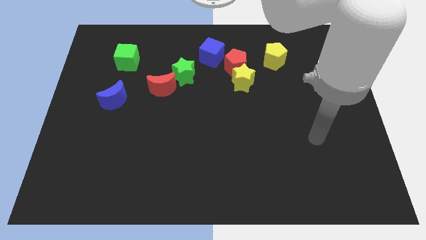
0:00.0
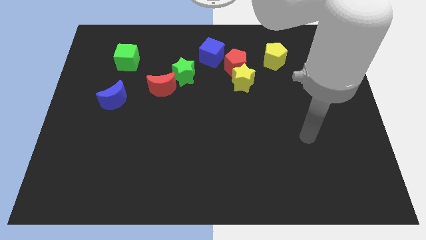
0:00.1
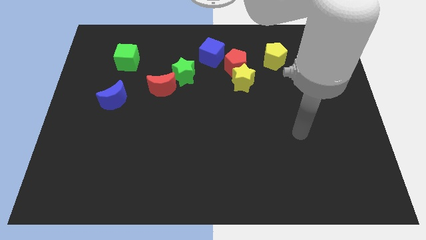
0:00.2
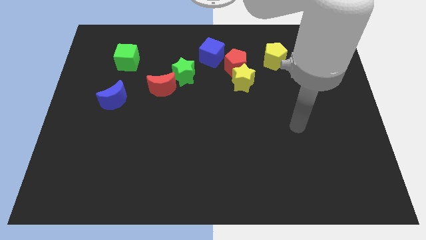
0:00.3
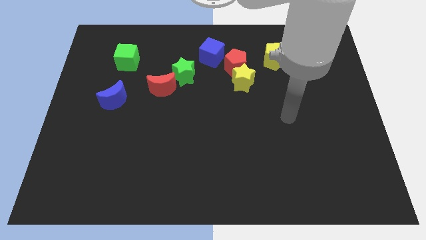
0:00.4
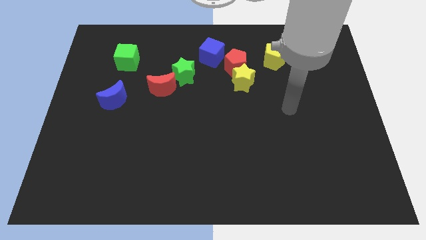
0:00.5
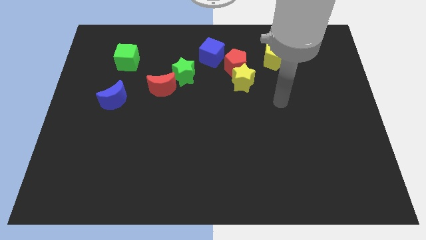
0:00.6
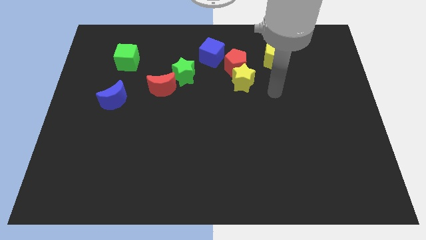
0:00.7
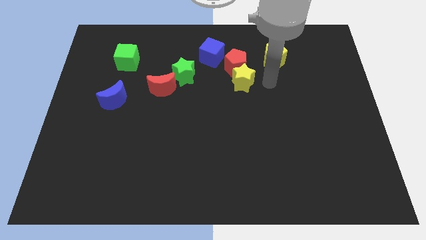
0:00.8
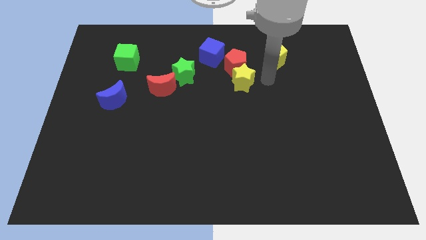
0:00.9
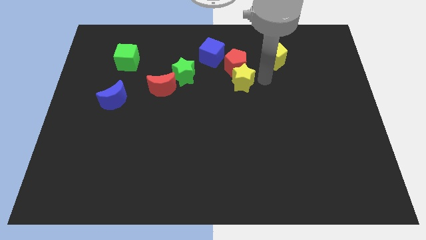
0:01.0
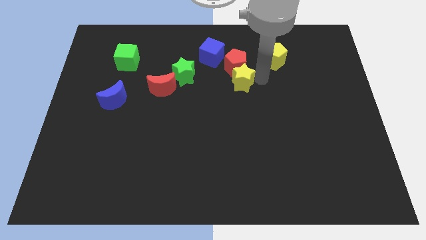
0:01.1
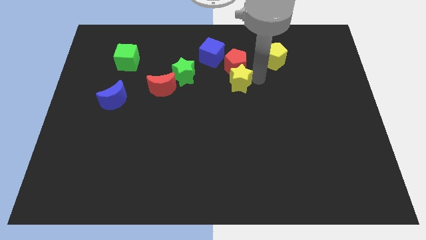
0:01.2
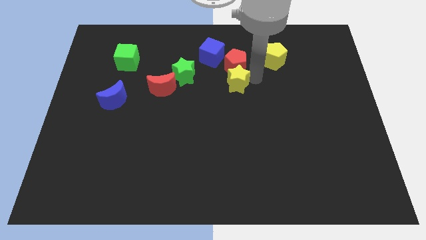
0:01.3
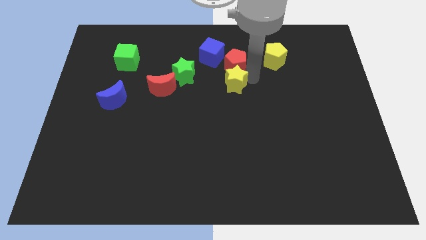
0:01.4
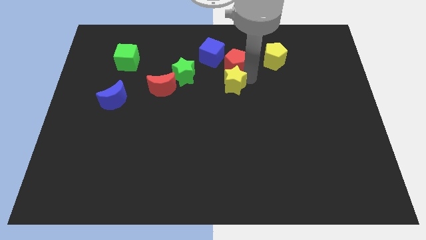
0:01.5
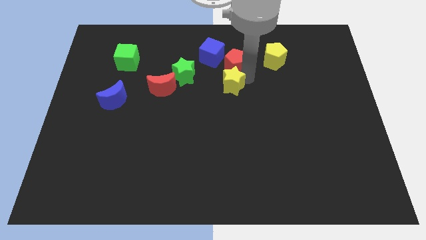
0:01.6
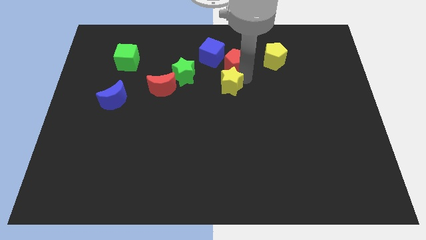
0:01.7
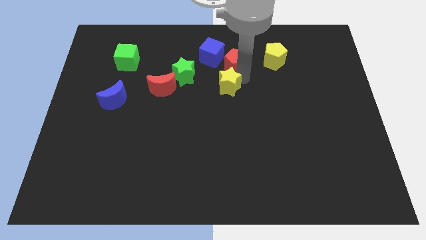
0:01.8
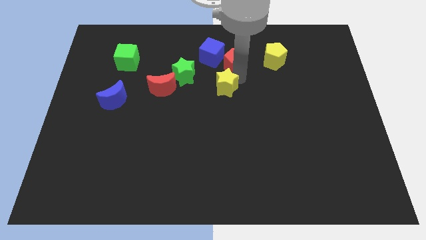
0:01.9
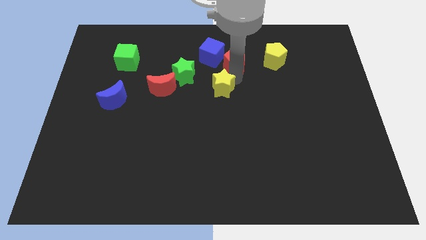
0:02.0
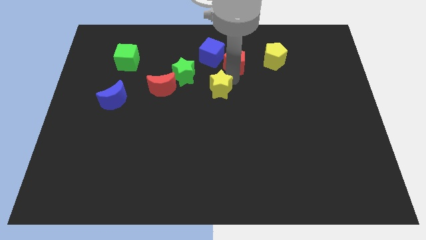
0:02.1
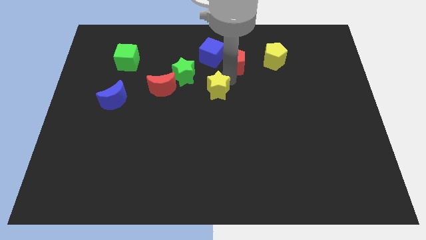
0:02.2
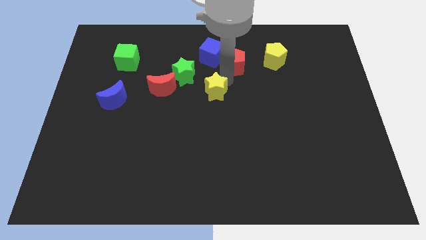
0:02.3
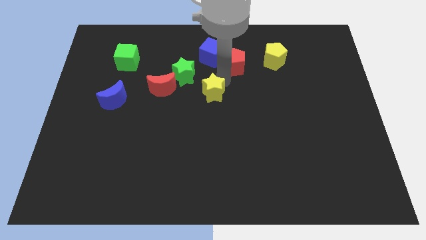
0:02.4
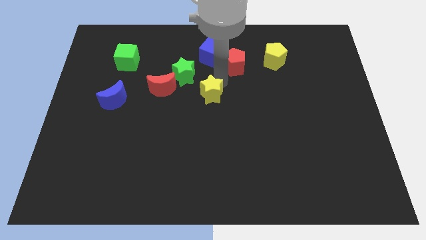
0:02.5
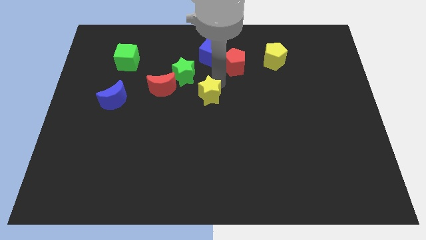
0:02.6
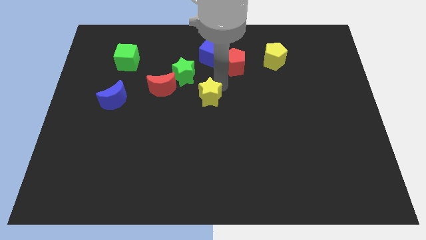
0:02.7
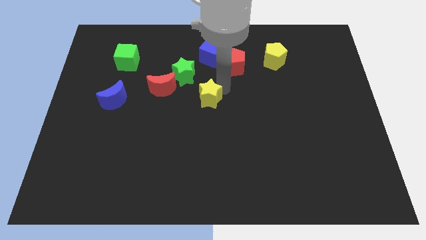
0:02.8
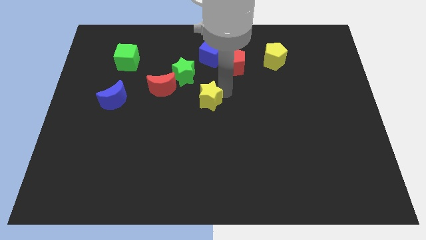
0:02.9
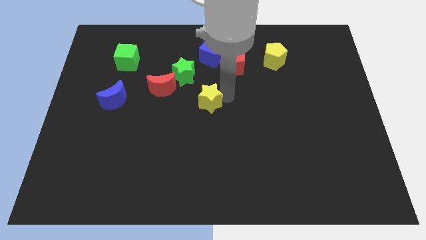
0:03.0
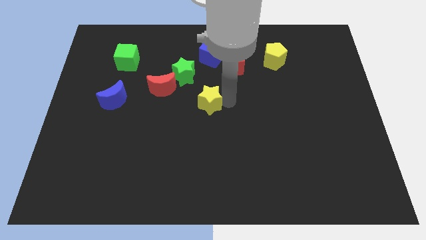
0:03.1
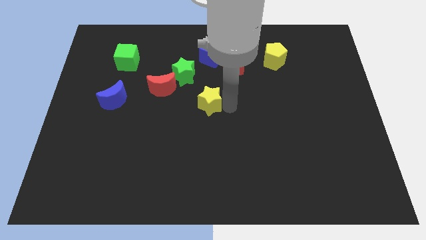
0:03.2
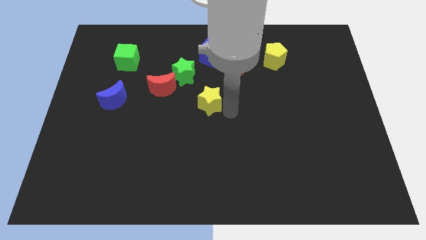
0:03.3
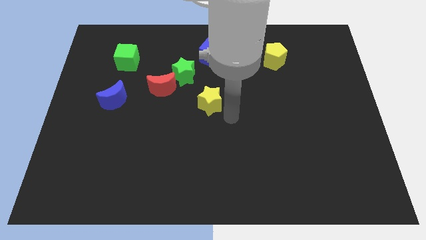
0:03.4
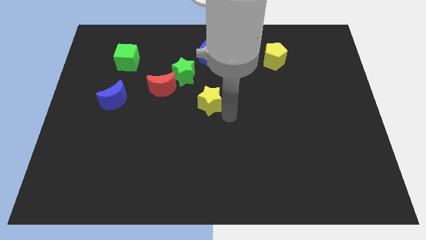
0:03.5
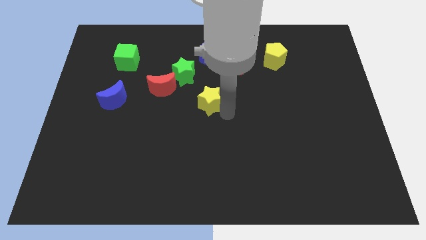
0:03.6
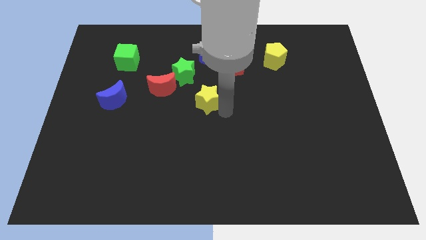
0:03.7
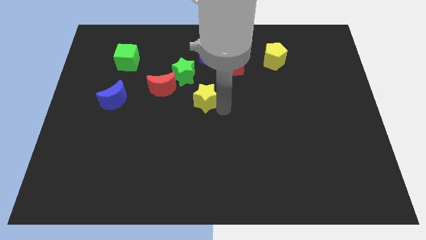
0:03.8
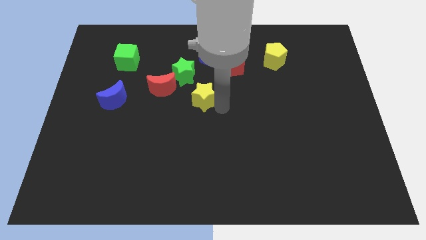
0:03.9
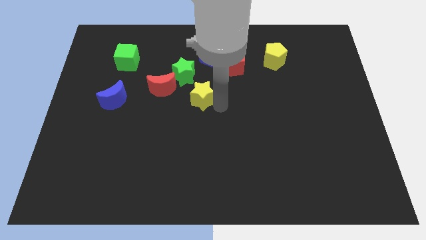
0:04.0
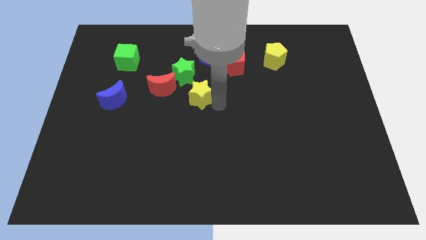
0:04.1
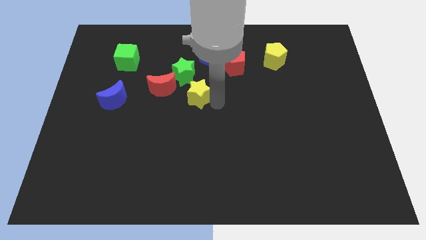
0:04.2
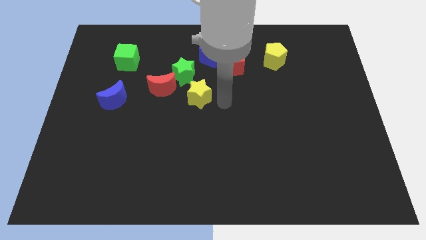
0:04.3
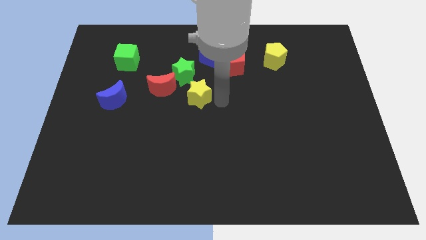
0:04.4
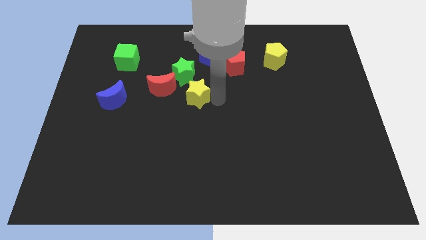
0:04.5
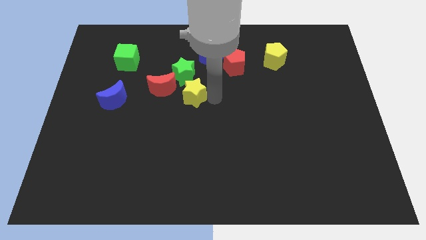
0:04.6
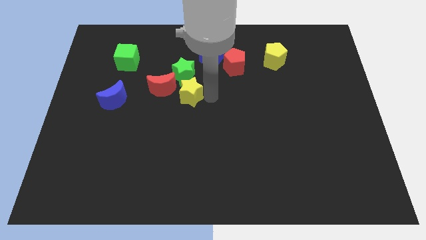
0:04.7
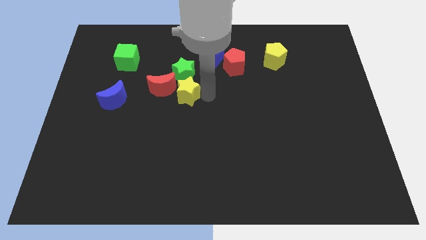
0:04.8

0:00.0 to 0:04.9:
slide the yellow star towards the red moon

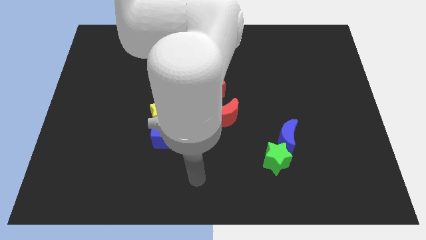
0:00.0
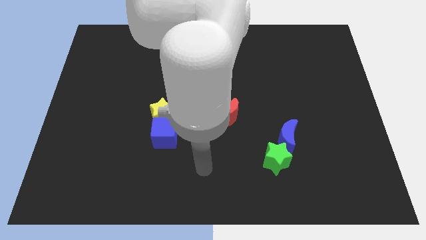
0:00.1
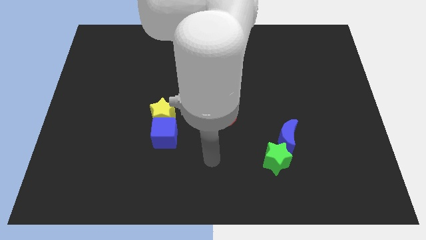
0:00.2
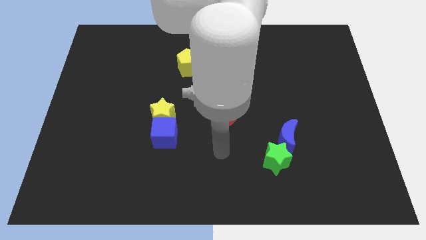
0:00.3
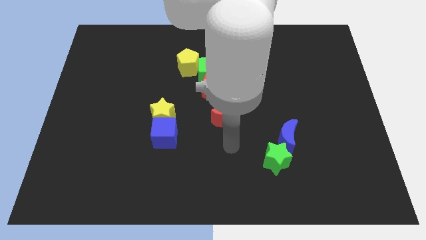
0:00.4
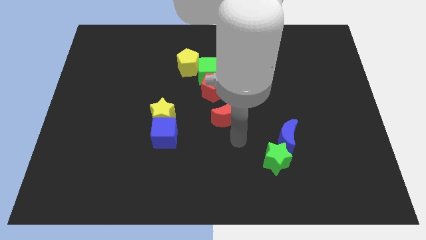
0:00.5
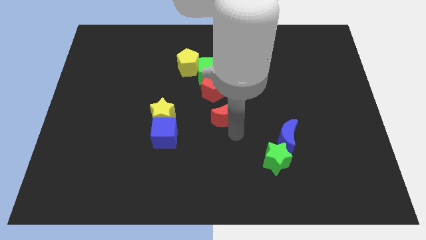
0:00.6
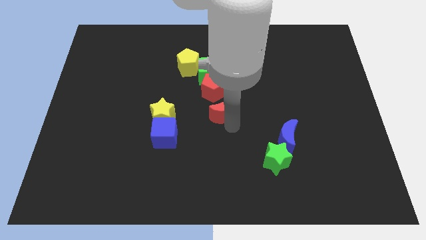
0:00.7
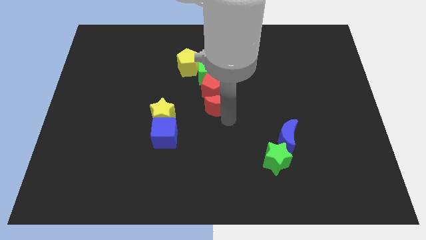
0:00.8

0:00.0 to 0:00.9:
put the red moon close to the red pentagon

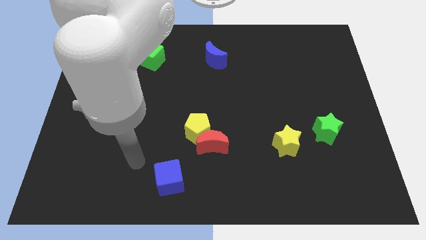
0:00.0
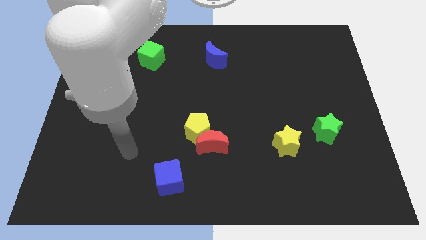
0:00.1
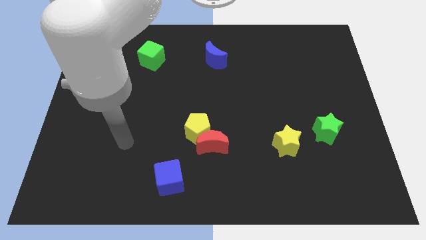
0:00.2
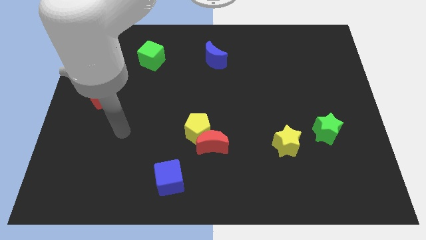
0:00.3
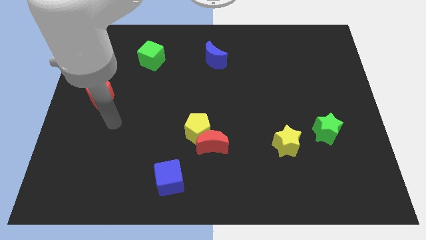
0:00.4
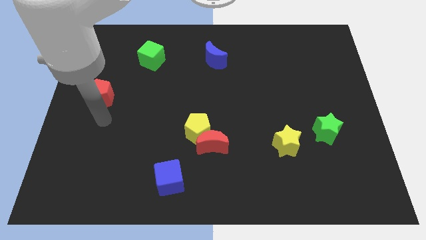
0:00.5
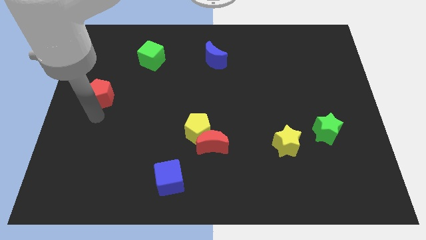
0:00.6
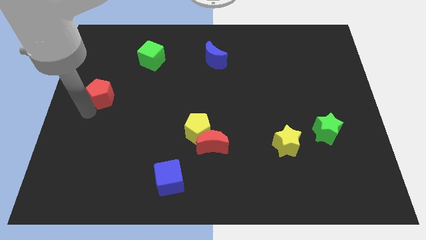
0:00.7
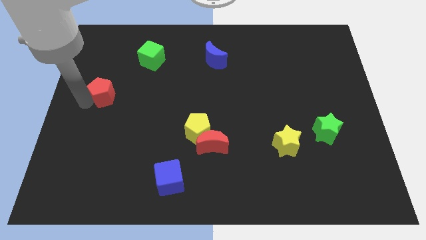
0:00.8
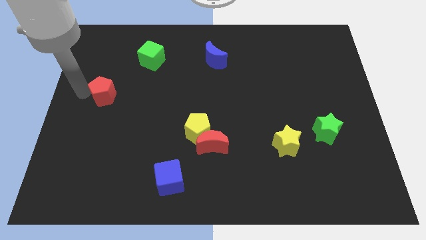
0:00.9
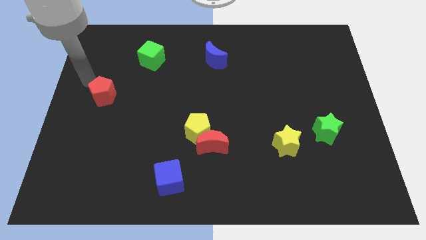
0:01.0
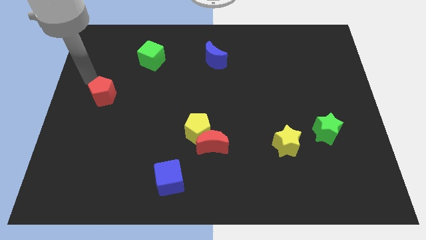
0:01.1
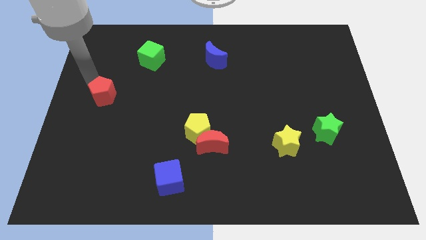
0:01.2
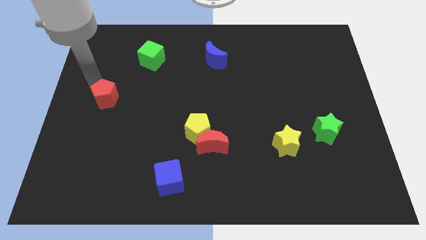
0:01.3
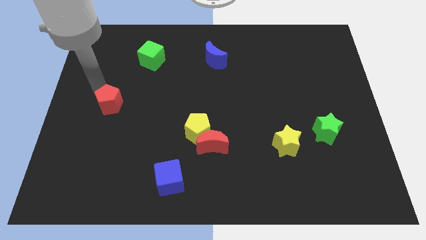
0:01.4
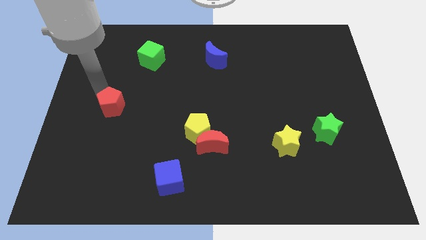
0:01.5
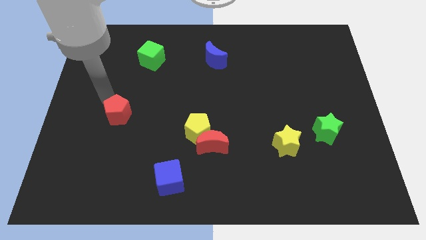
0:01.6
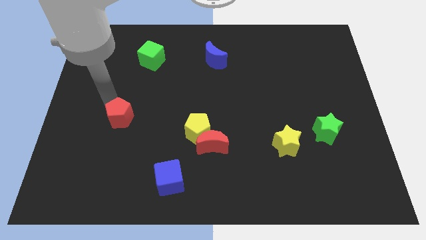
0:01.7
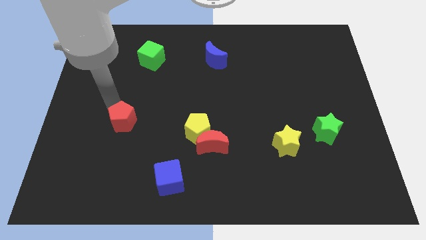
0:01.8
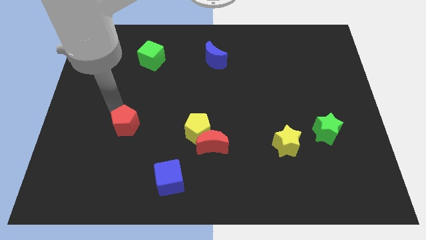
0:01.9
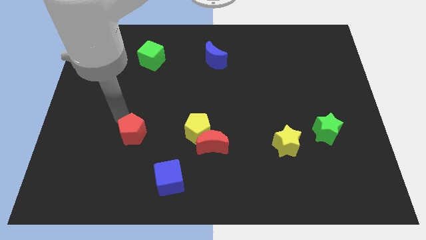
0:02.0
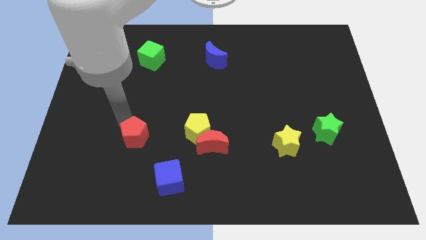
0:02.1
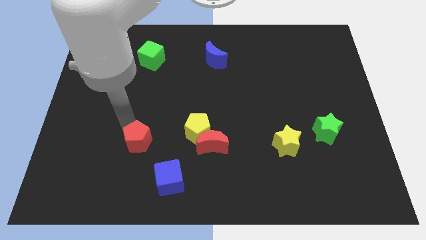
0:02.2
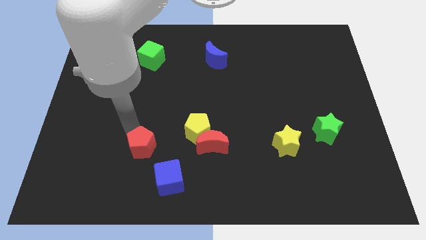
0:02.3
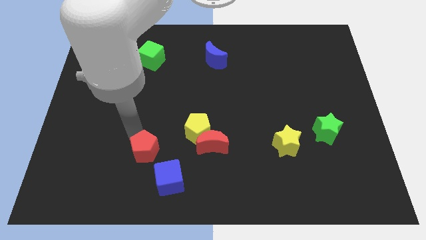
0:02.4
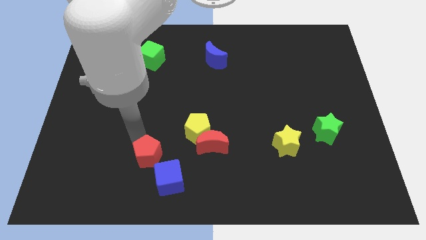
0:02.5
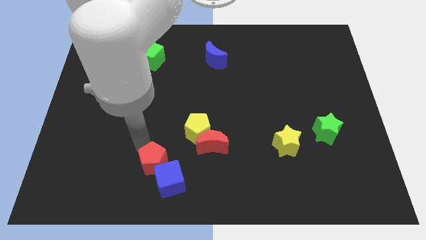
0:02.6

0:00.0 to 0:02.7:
move the red pentagon to the blue cube
